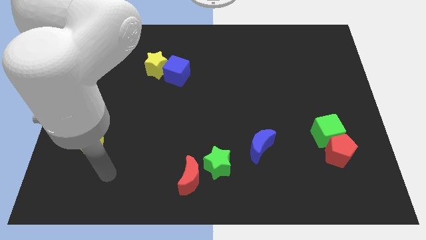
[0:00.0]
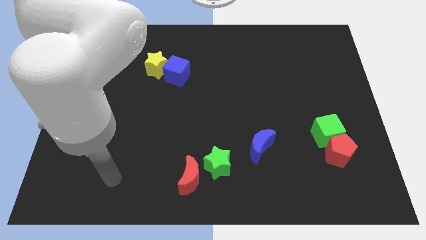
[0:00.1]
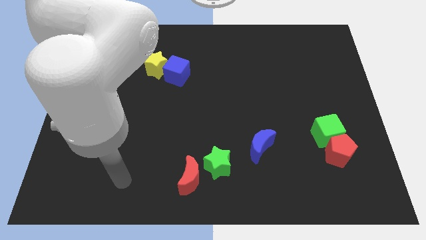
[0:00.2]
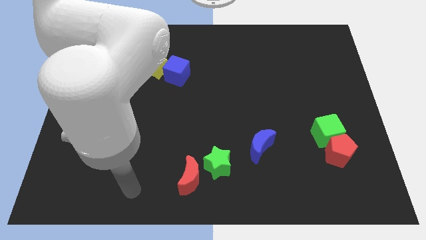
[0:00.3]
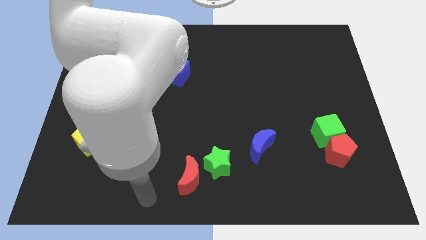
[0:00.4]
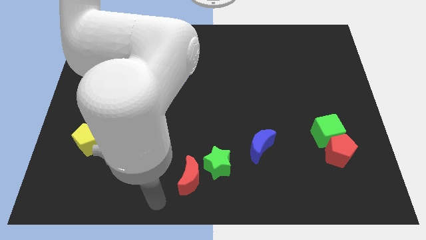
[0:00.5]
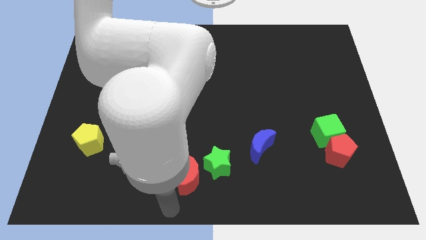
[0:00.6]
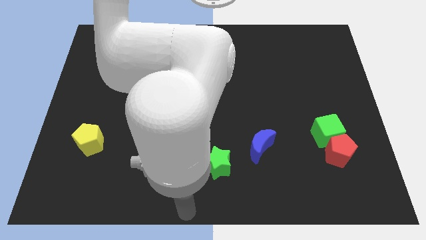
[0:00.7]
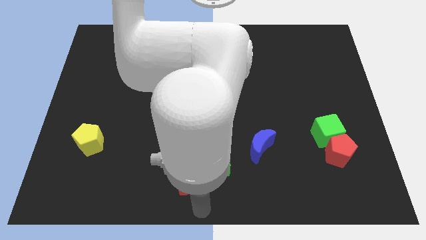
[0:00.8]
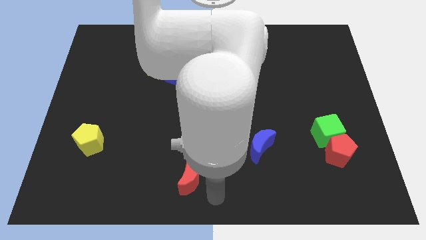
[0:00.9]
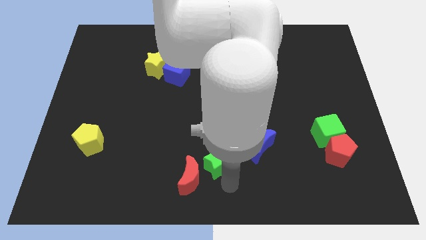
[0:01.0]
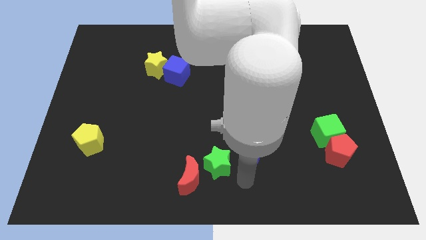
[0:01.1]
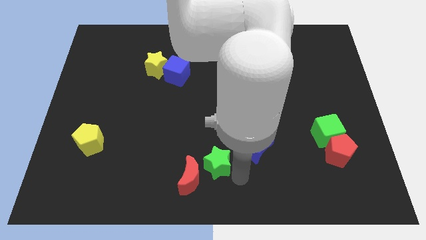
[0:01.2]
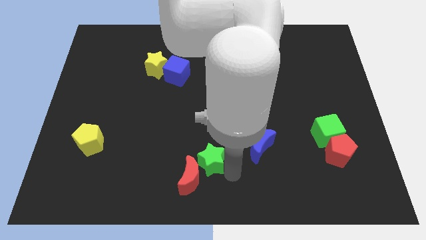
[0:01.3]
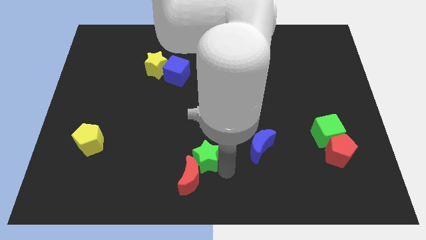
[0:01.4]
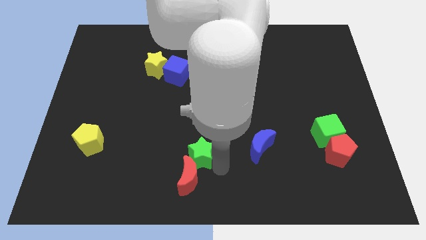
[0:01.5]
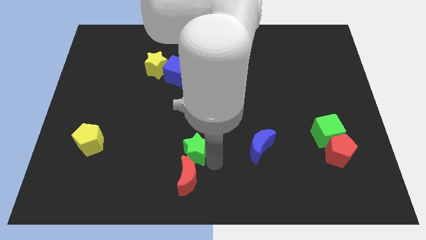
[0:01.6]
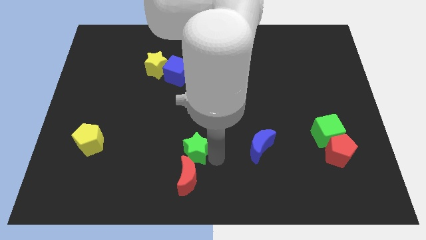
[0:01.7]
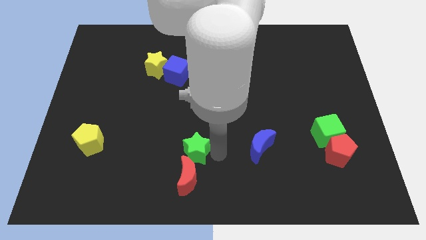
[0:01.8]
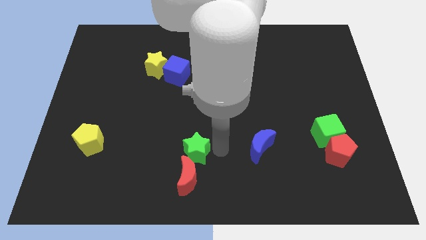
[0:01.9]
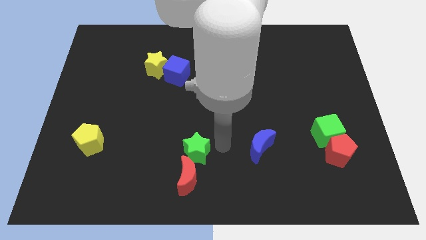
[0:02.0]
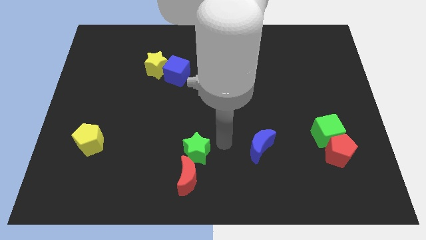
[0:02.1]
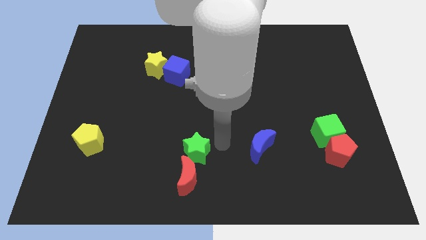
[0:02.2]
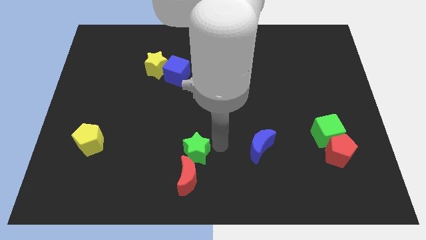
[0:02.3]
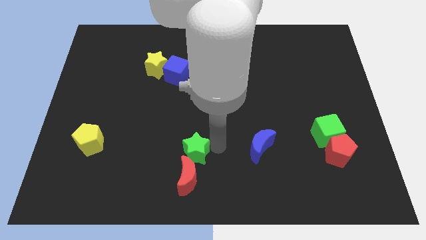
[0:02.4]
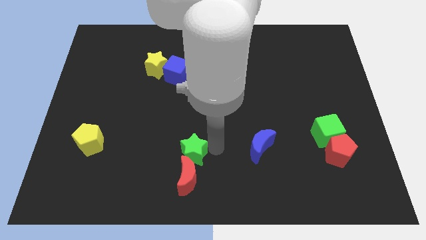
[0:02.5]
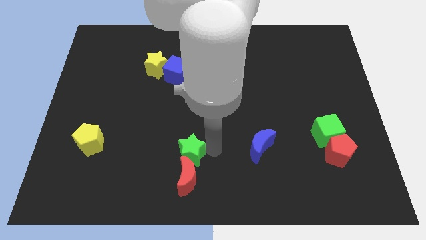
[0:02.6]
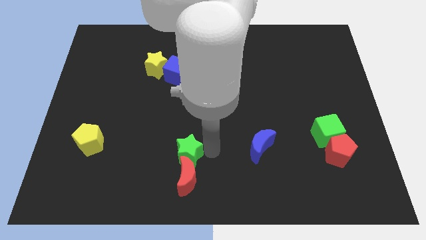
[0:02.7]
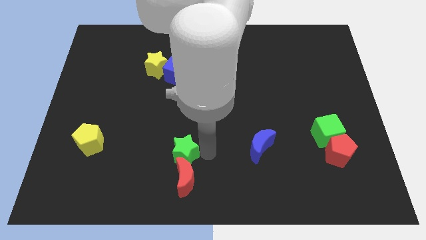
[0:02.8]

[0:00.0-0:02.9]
push the green star to the left slightly

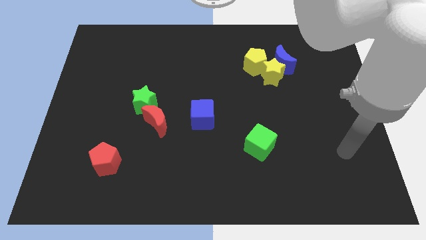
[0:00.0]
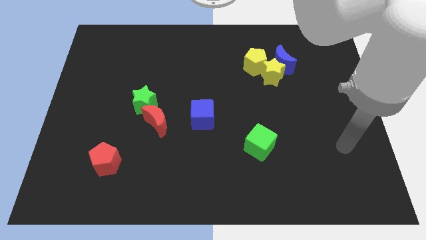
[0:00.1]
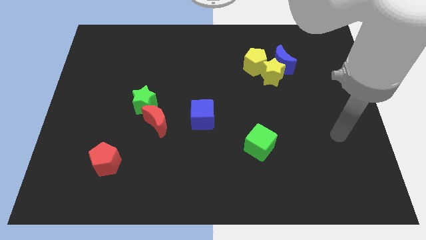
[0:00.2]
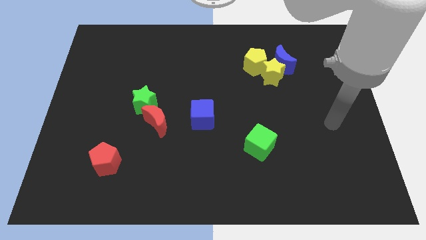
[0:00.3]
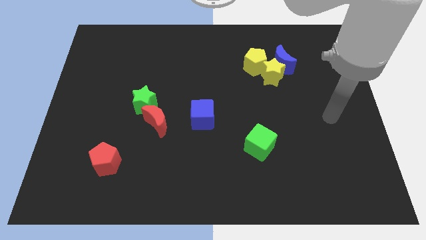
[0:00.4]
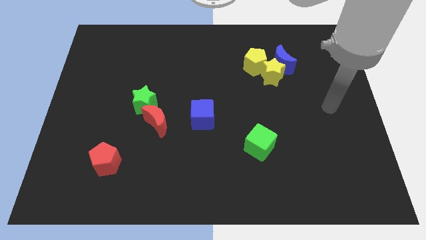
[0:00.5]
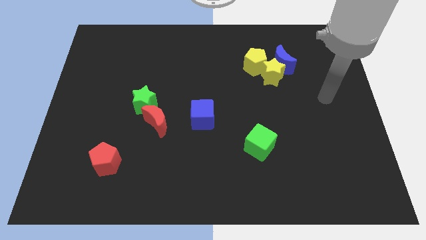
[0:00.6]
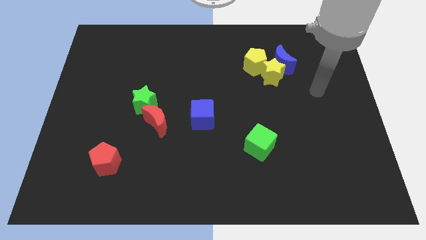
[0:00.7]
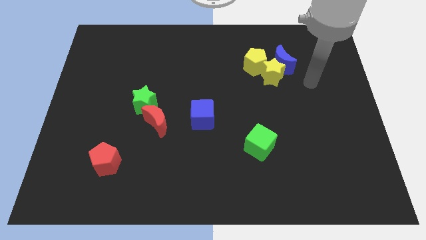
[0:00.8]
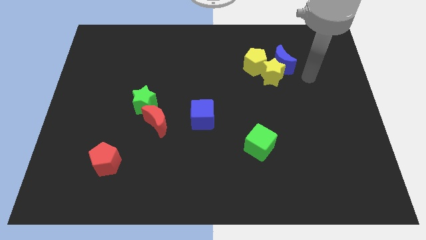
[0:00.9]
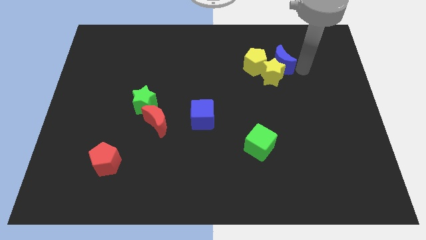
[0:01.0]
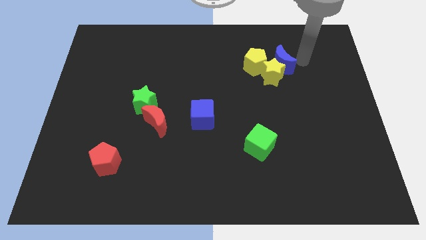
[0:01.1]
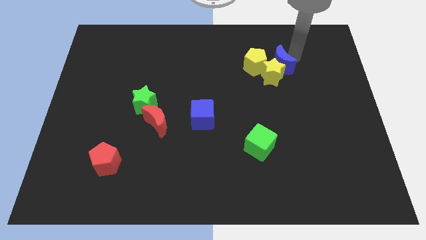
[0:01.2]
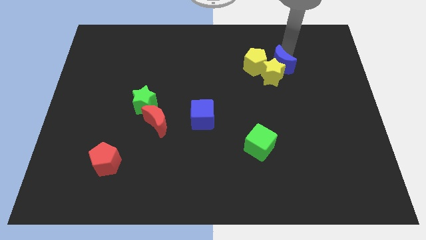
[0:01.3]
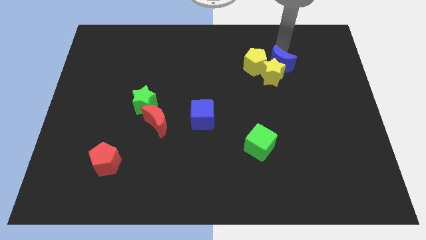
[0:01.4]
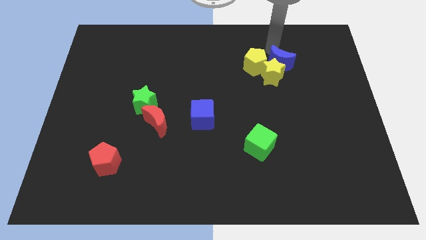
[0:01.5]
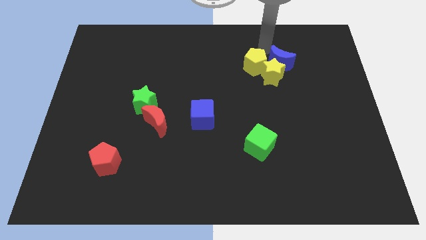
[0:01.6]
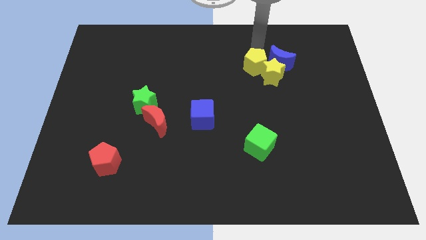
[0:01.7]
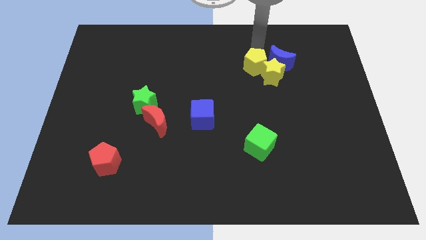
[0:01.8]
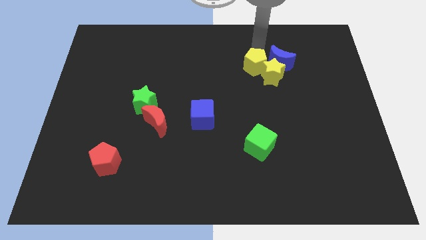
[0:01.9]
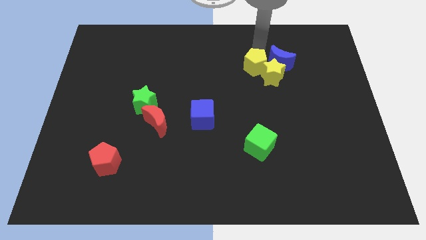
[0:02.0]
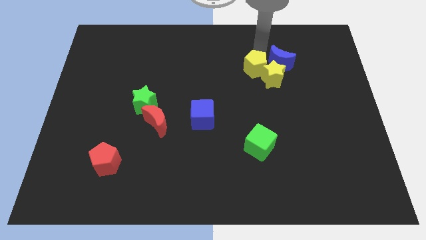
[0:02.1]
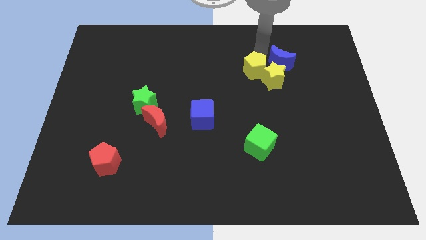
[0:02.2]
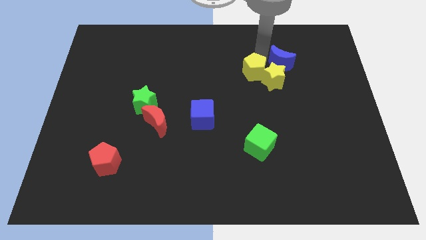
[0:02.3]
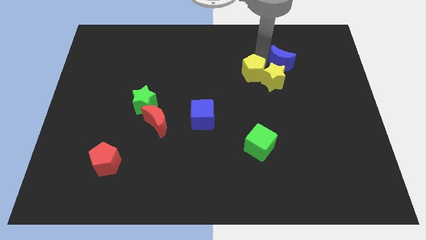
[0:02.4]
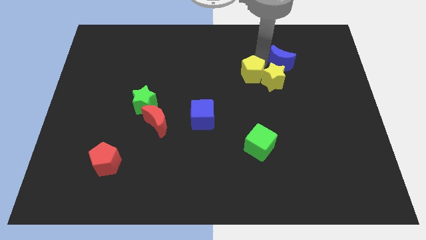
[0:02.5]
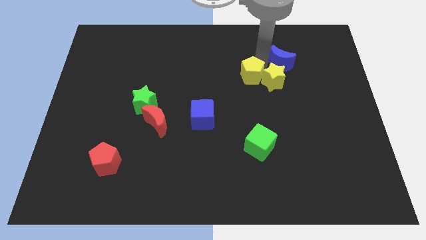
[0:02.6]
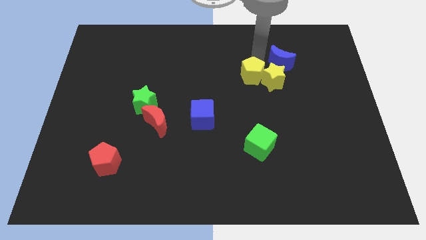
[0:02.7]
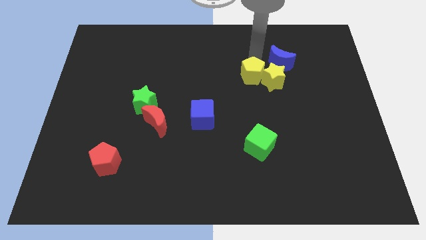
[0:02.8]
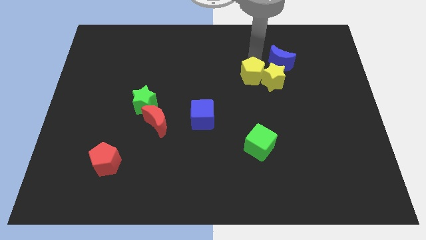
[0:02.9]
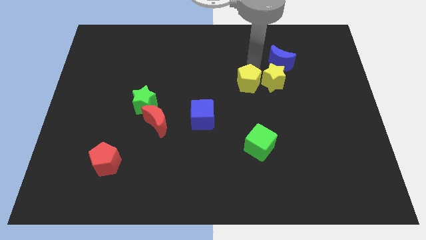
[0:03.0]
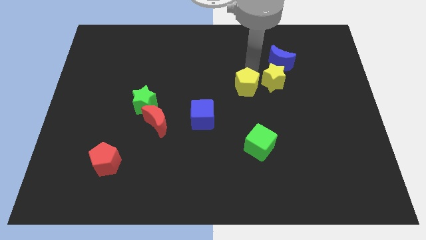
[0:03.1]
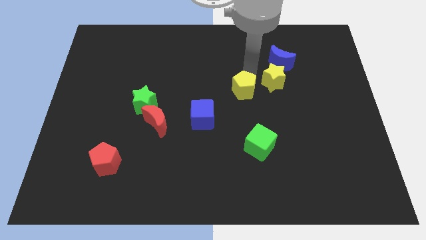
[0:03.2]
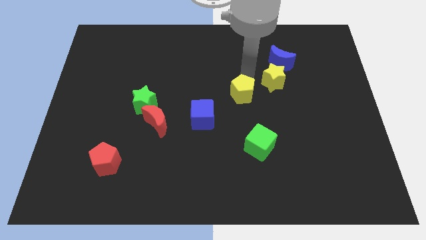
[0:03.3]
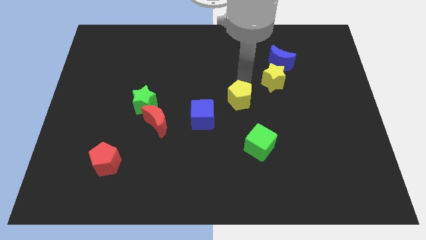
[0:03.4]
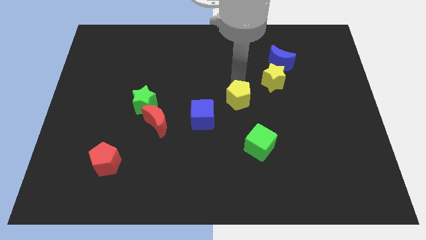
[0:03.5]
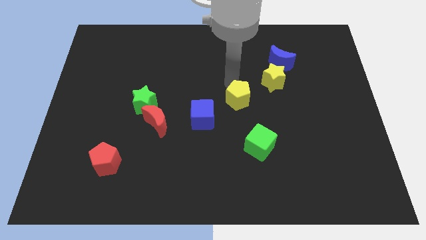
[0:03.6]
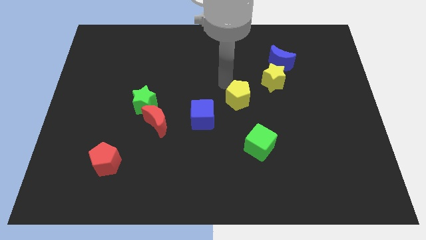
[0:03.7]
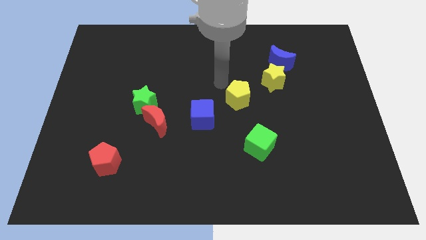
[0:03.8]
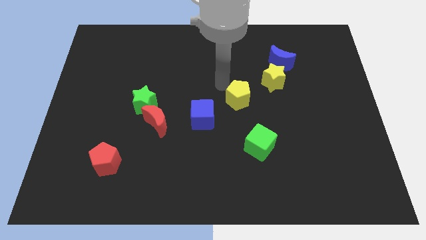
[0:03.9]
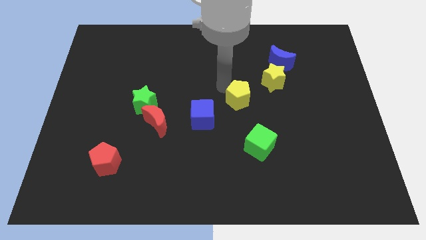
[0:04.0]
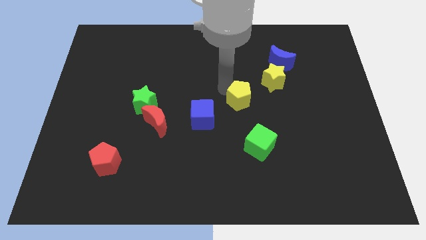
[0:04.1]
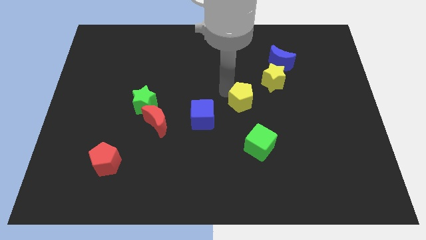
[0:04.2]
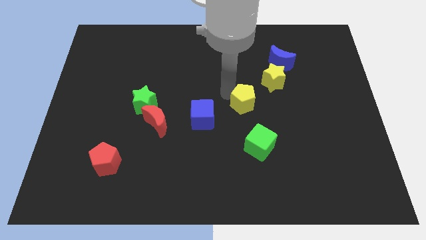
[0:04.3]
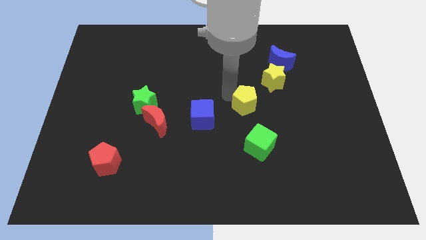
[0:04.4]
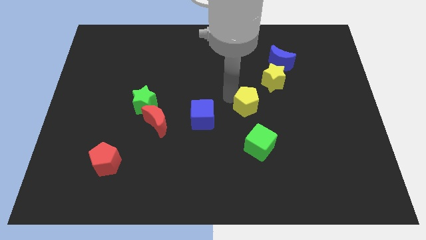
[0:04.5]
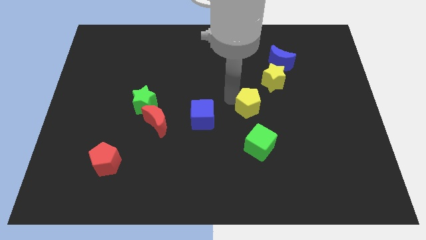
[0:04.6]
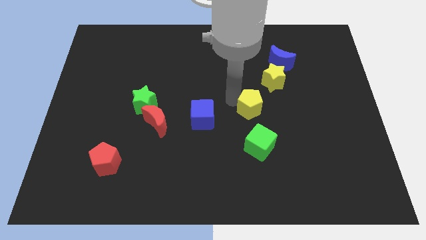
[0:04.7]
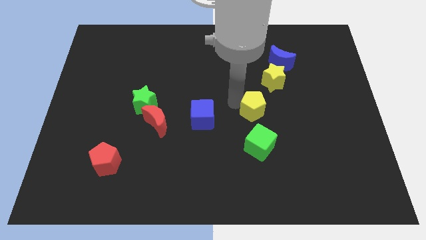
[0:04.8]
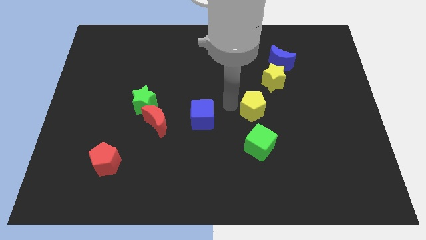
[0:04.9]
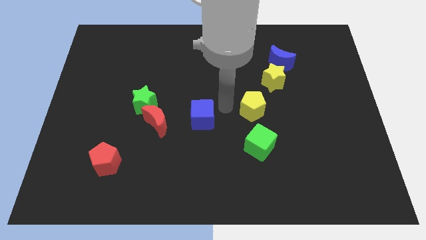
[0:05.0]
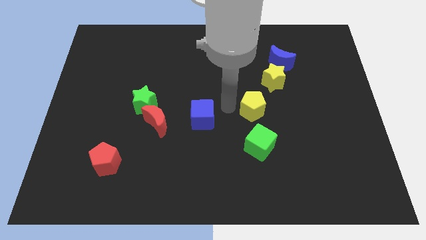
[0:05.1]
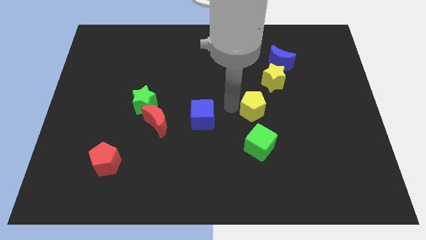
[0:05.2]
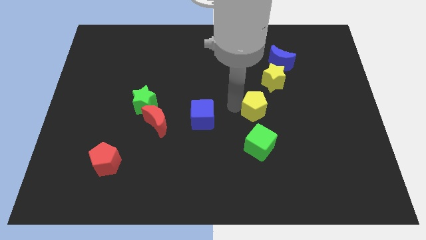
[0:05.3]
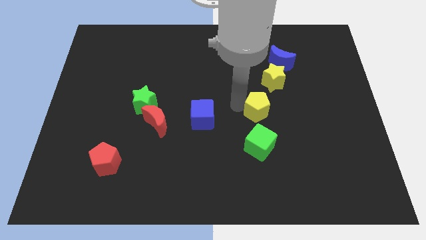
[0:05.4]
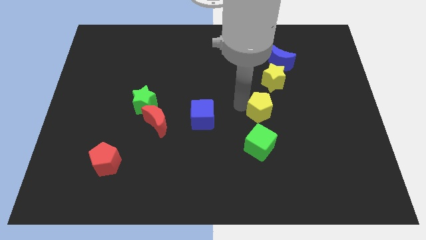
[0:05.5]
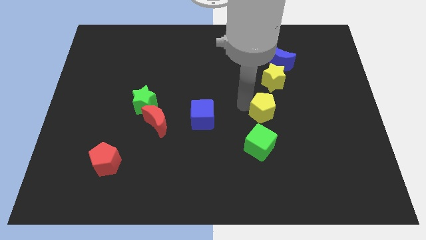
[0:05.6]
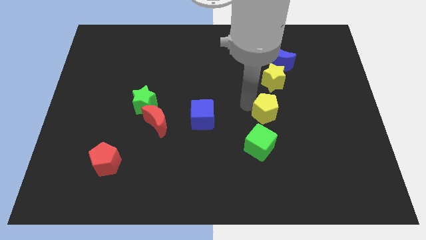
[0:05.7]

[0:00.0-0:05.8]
push the yellow pentagon a bit downwards and right
